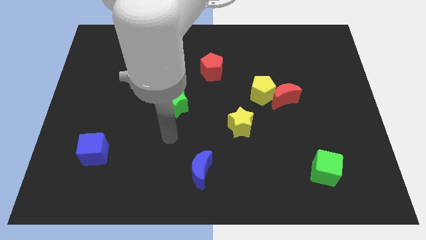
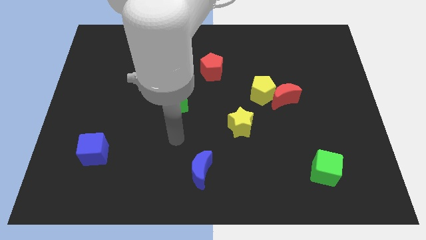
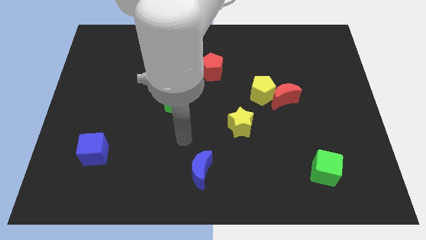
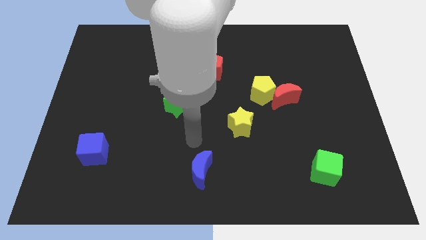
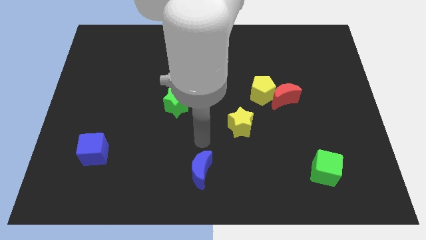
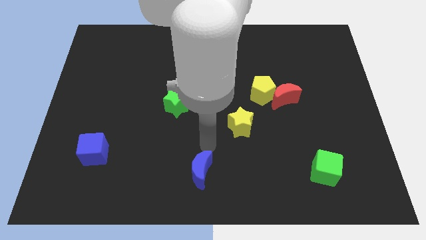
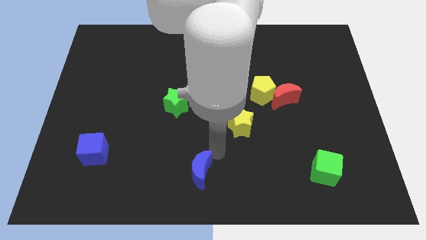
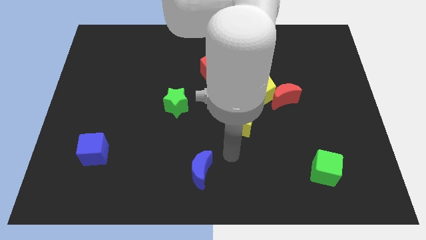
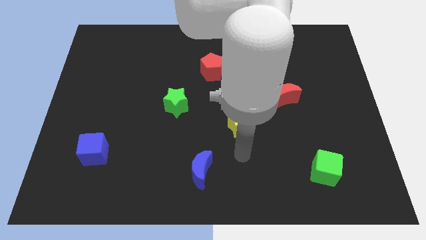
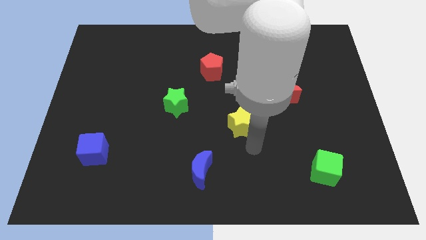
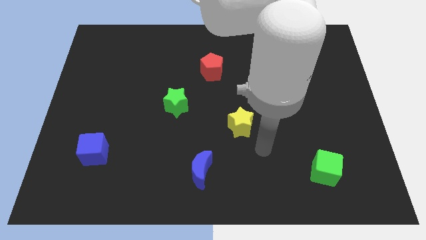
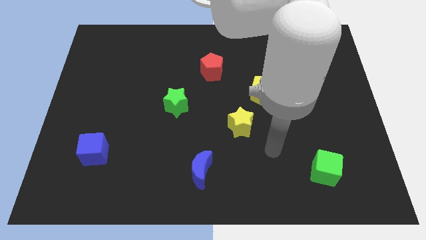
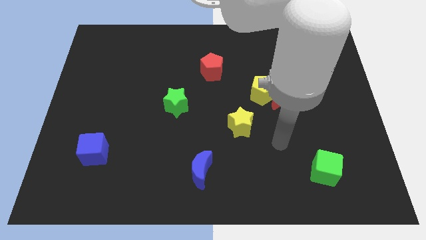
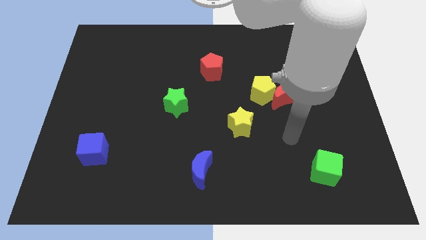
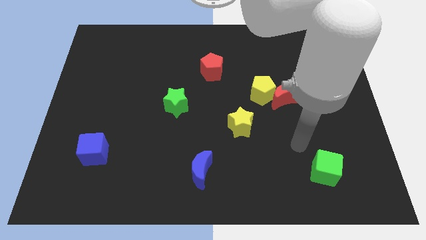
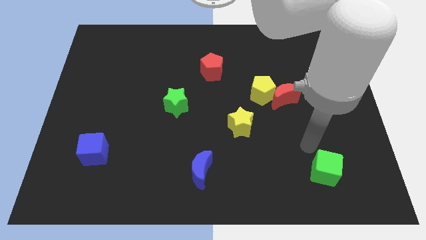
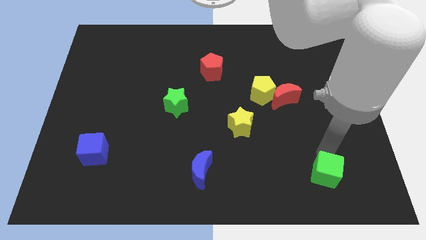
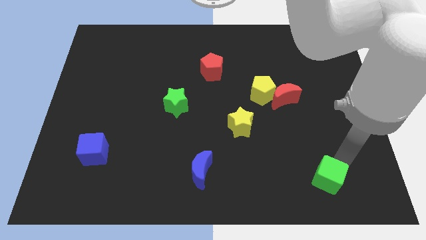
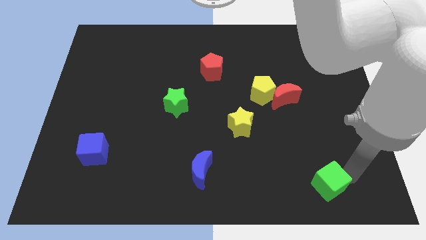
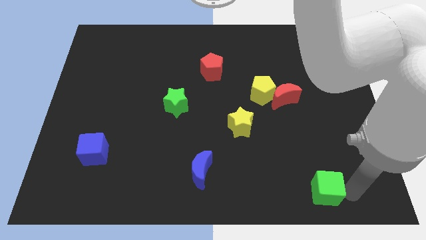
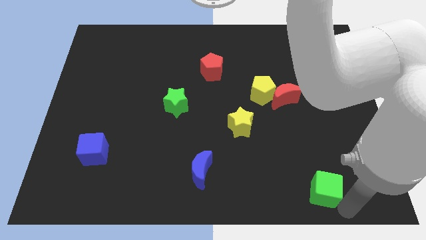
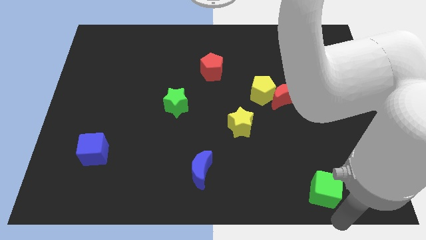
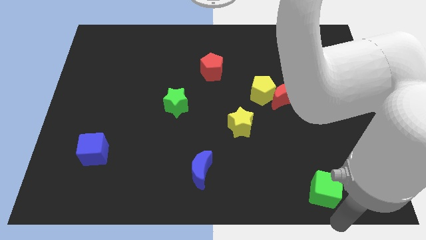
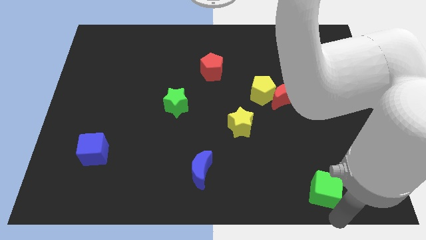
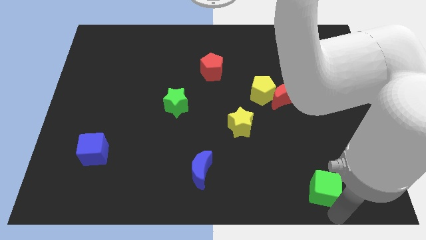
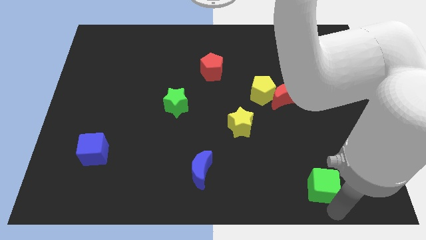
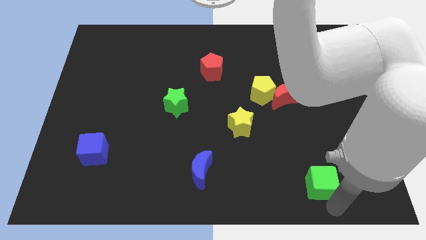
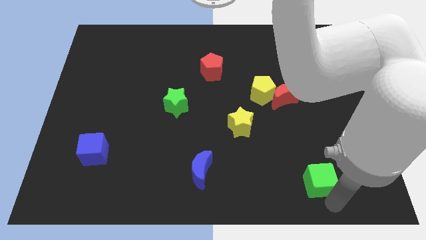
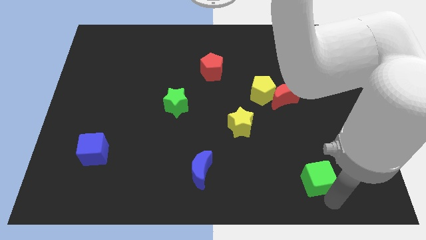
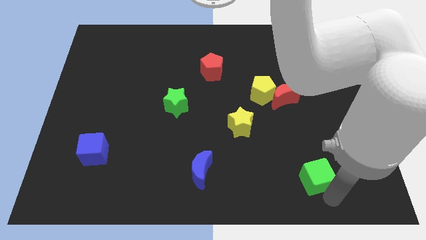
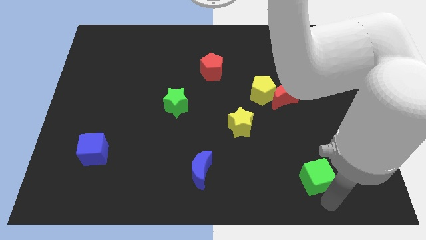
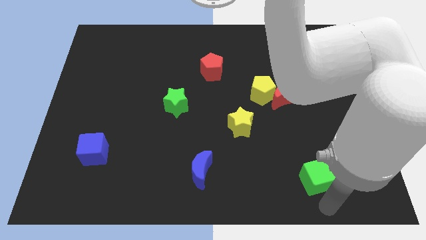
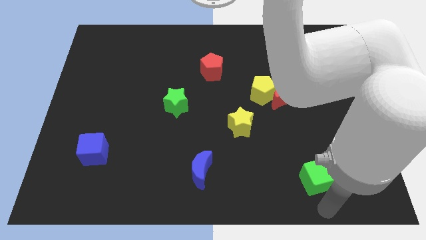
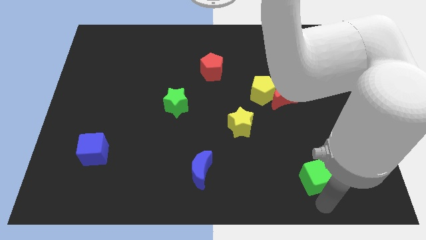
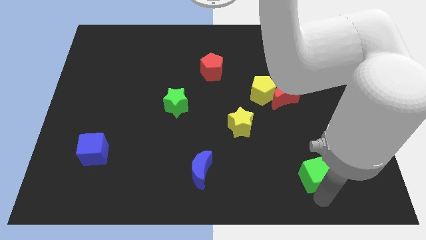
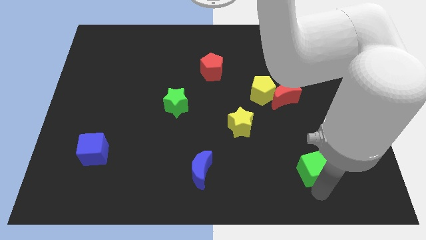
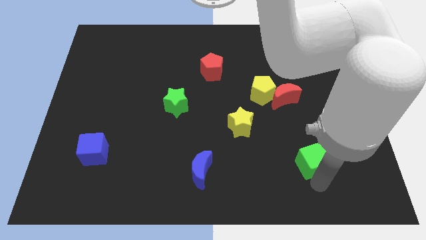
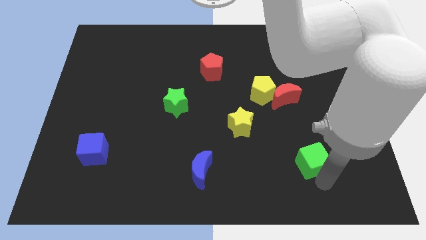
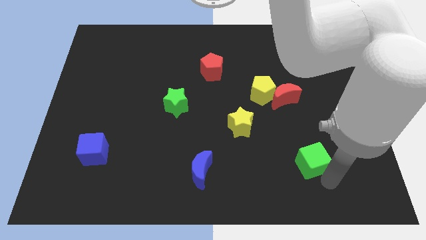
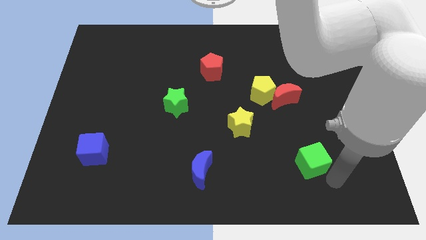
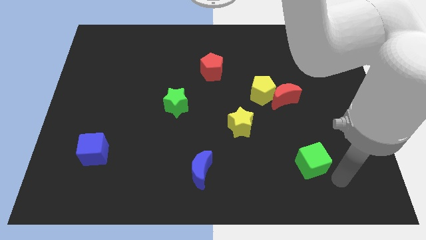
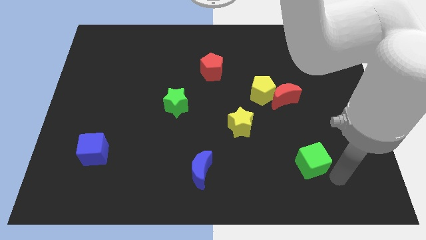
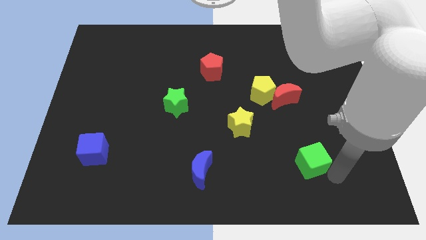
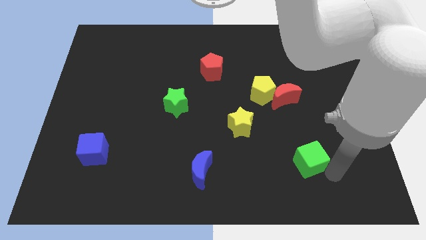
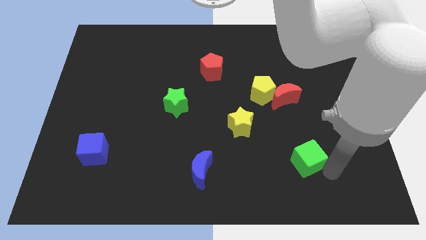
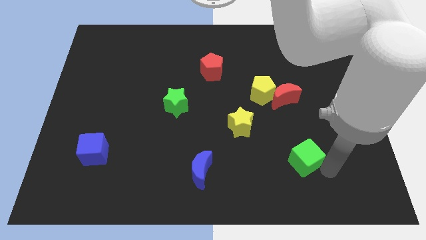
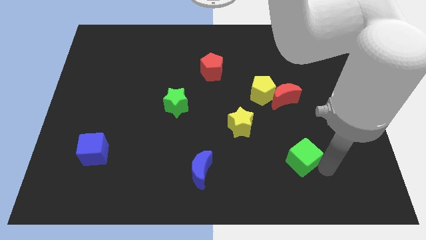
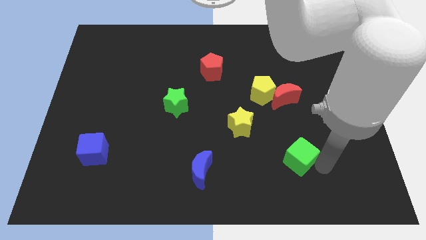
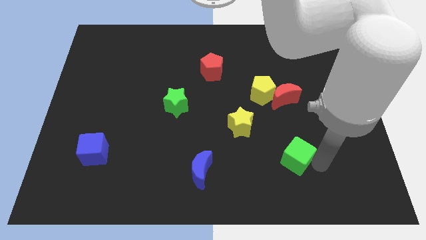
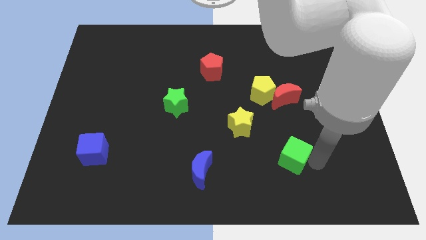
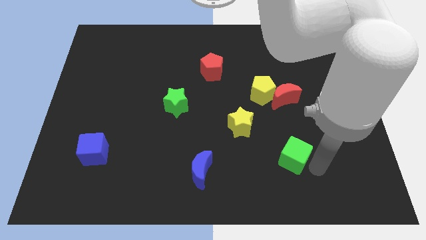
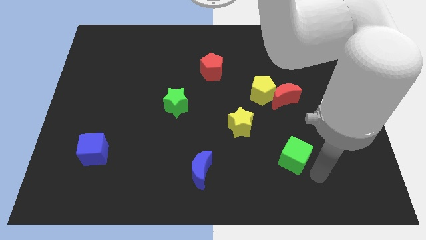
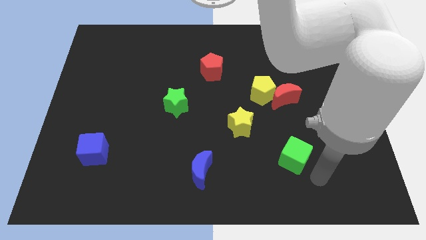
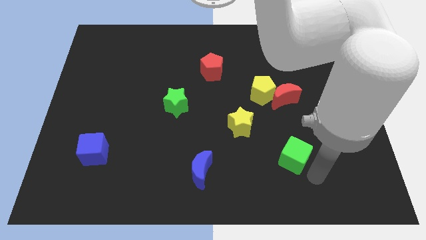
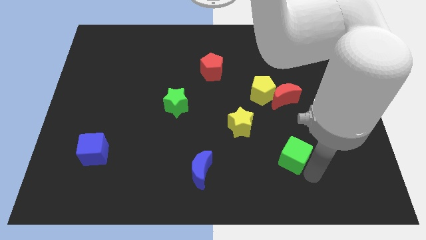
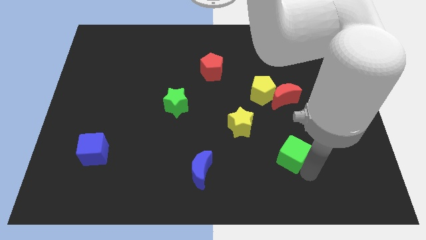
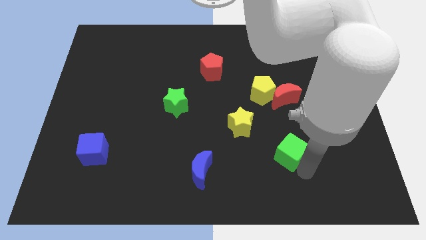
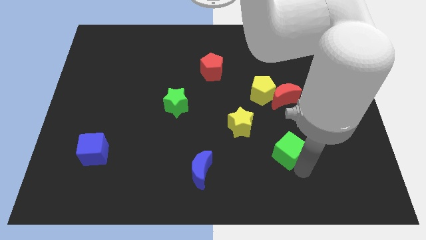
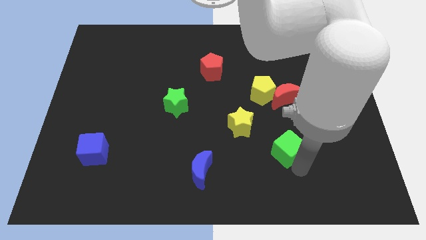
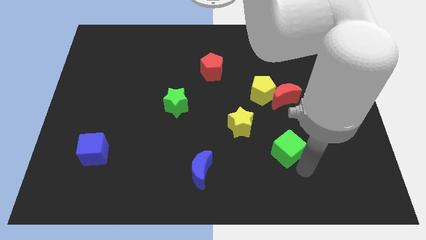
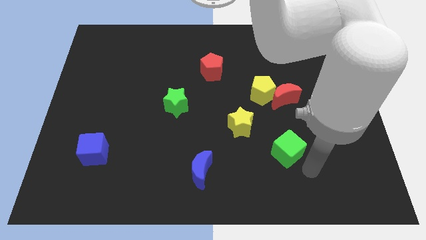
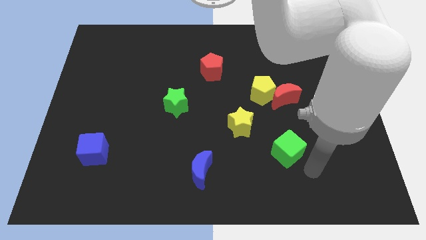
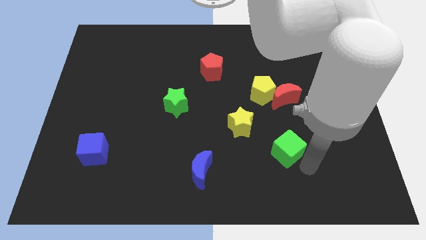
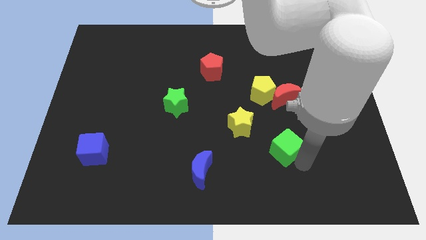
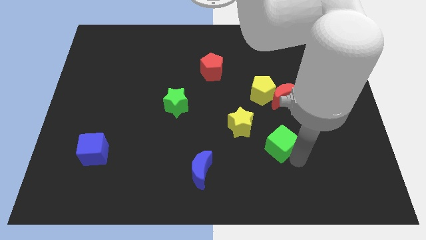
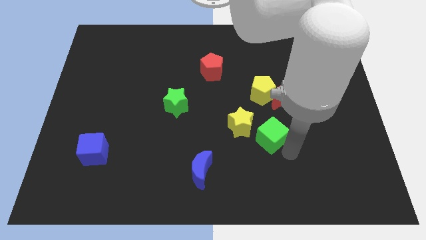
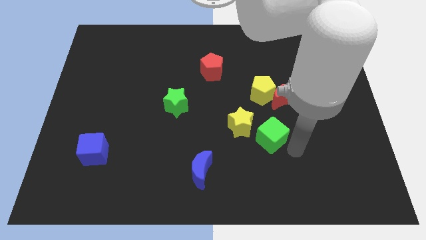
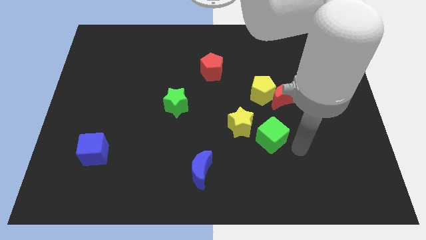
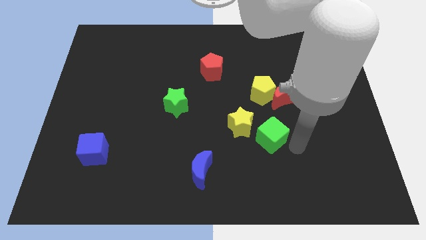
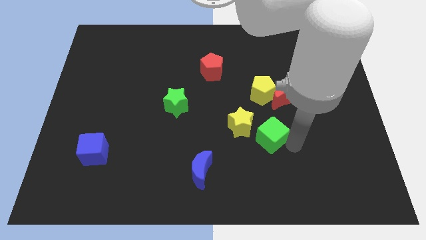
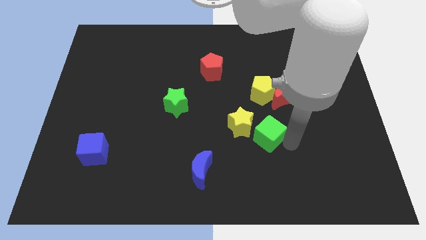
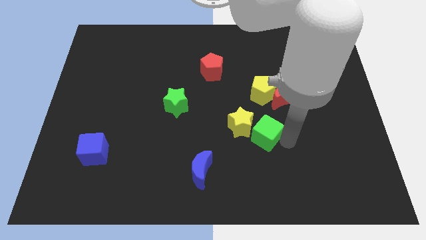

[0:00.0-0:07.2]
put the green cube to the yellow star

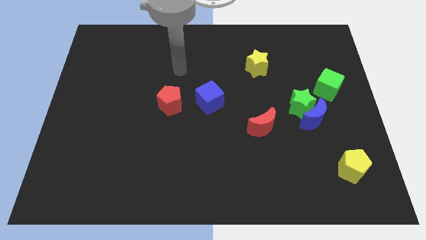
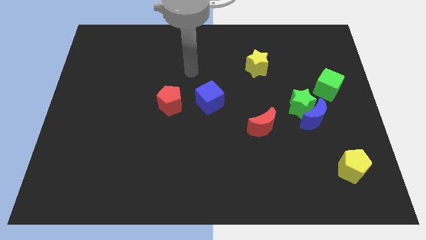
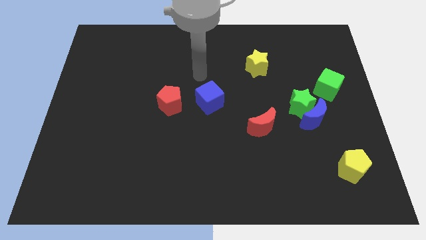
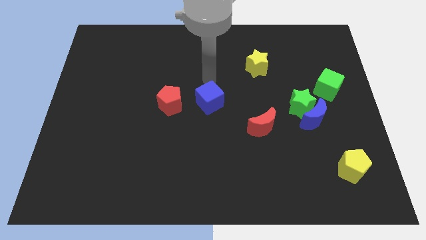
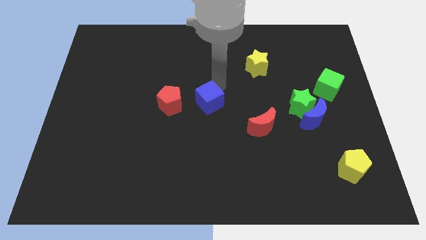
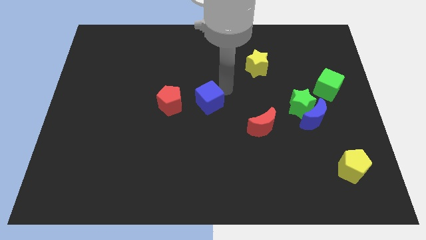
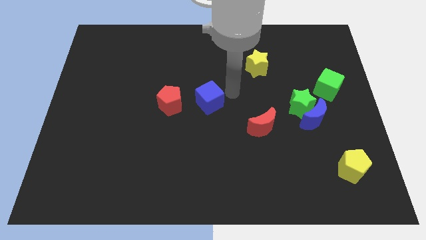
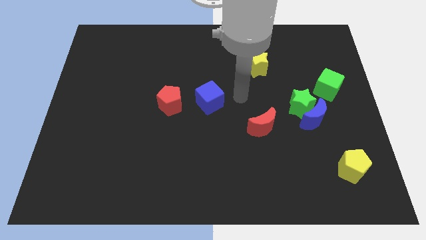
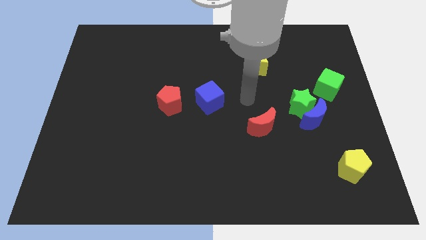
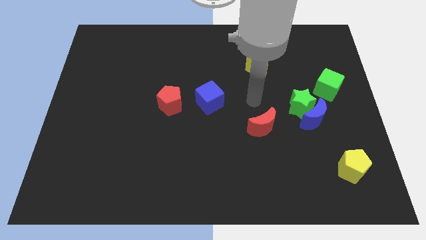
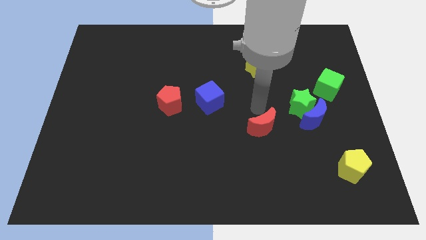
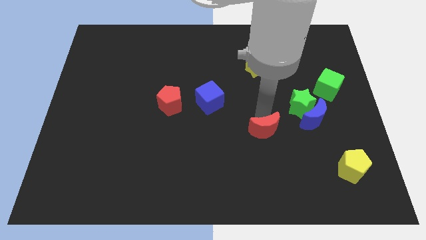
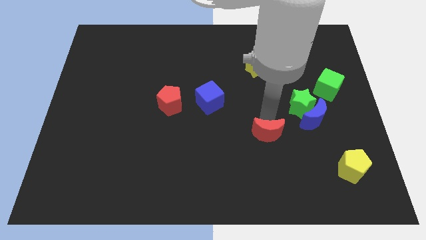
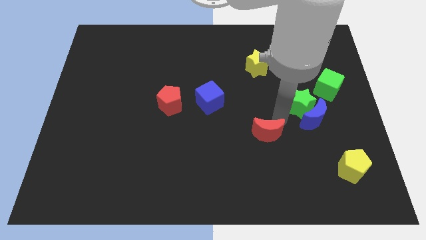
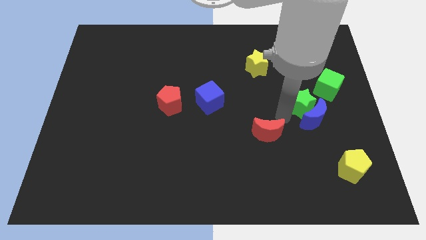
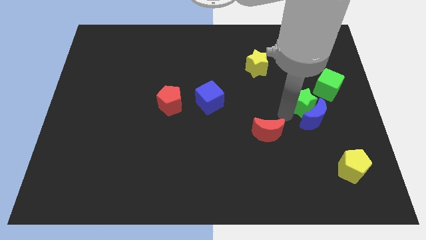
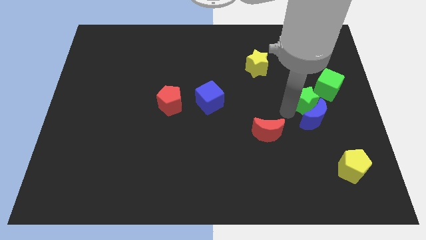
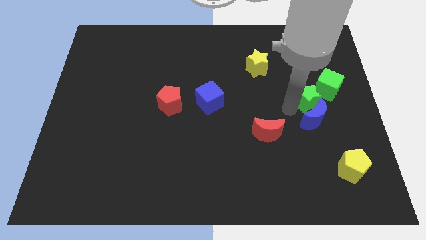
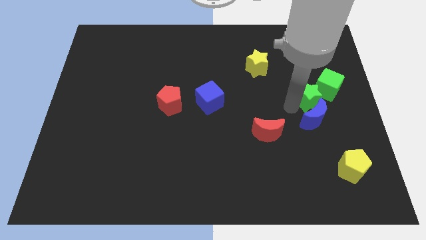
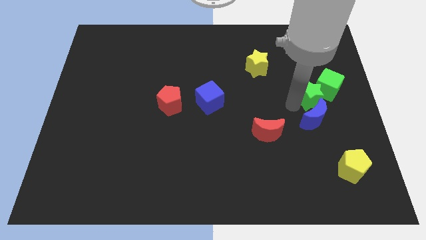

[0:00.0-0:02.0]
move the green star close to the green cube
